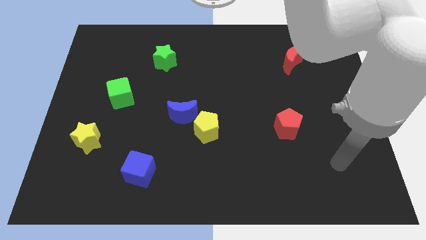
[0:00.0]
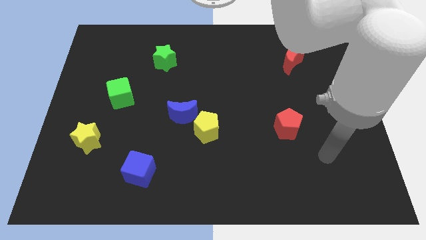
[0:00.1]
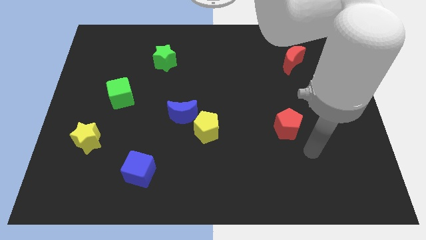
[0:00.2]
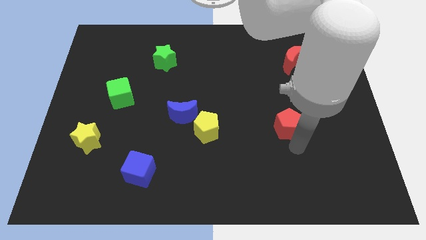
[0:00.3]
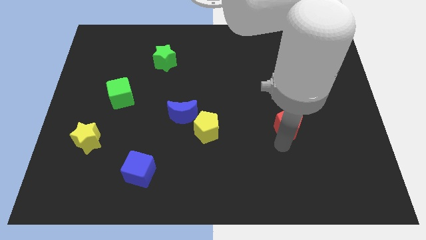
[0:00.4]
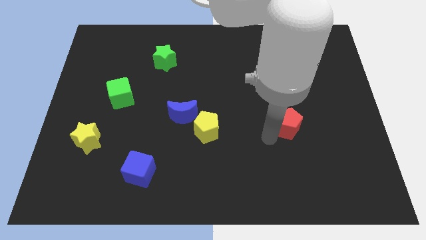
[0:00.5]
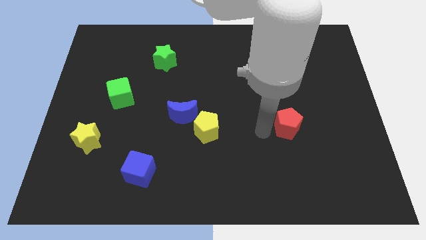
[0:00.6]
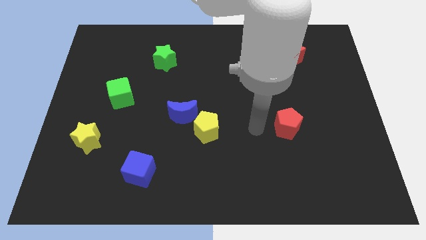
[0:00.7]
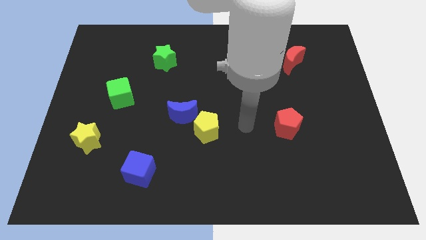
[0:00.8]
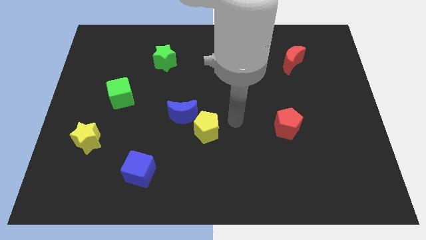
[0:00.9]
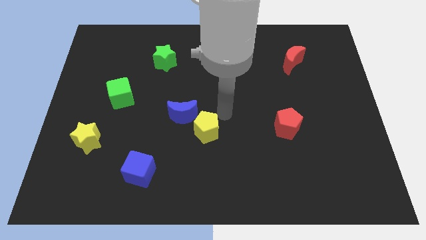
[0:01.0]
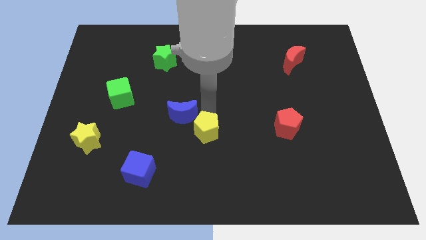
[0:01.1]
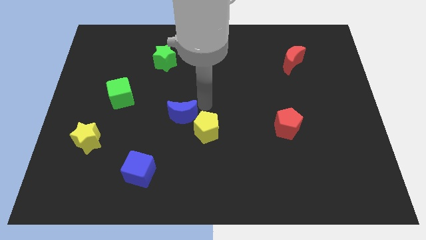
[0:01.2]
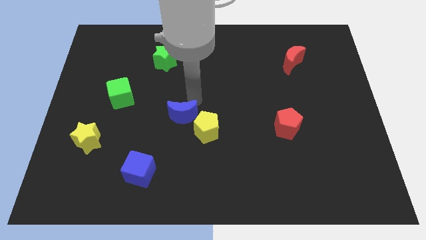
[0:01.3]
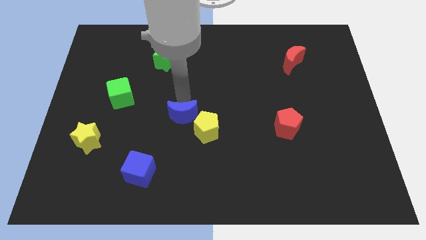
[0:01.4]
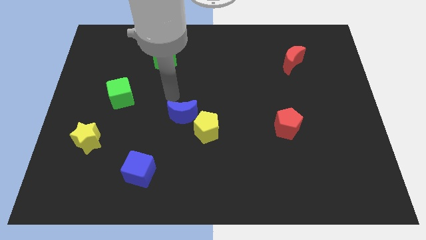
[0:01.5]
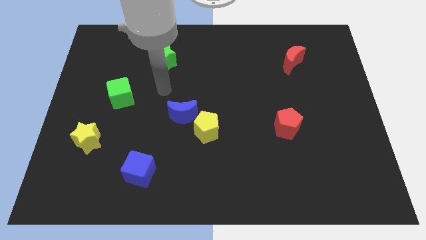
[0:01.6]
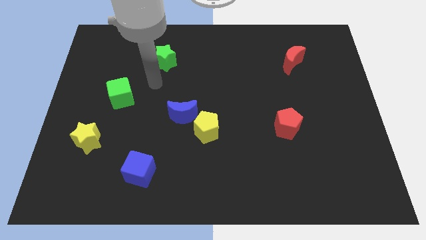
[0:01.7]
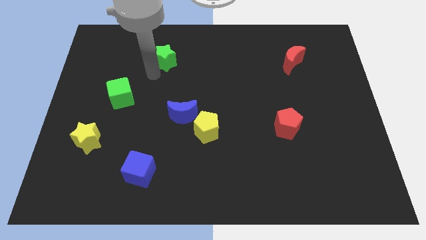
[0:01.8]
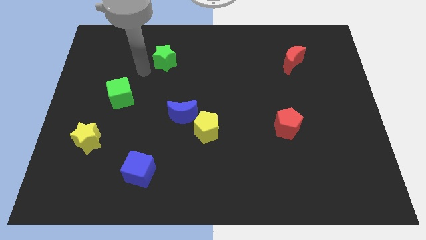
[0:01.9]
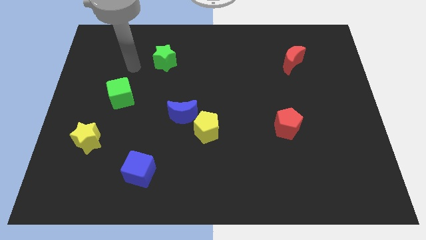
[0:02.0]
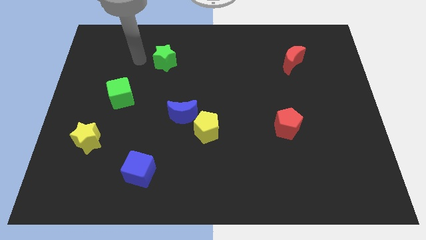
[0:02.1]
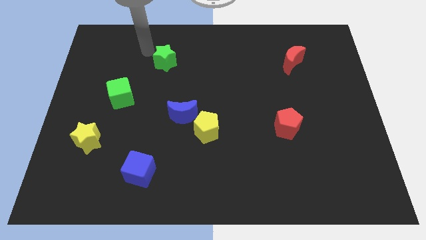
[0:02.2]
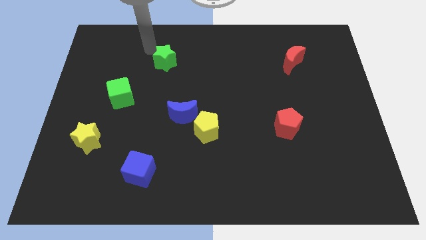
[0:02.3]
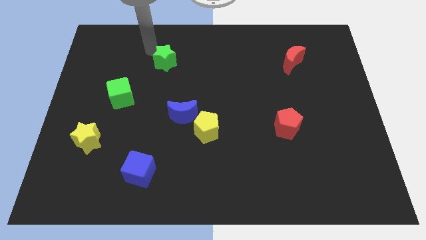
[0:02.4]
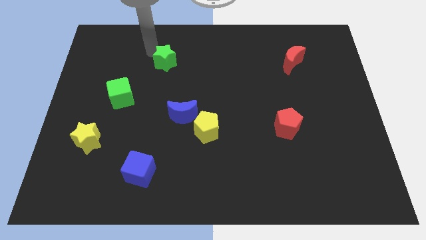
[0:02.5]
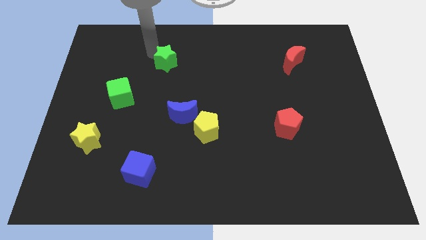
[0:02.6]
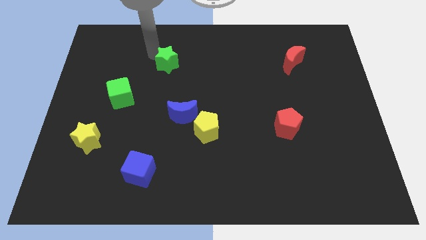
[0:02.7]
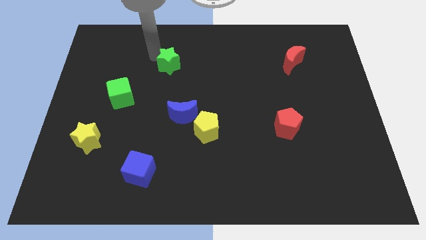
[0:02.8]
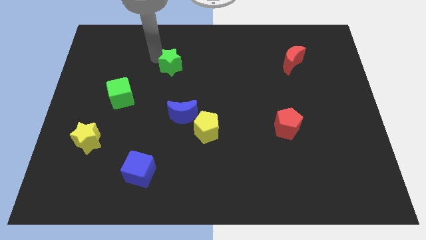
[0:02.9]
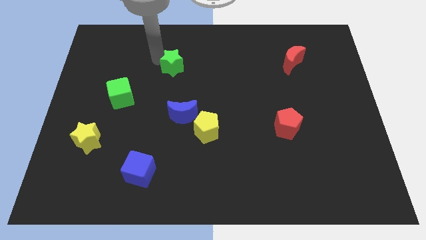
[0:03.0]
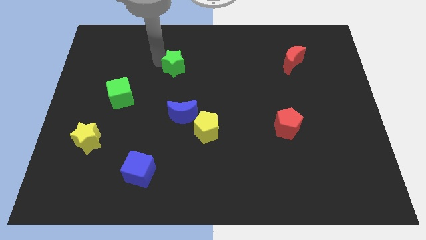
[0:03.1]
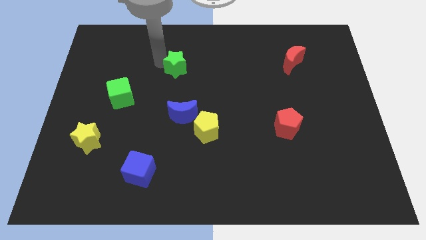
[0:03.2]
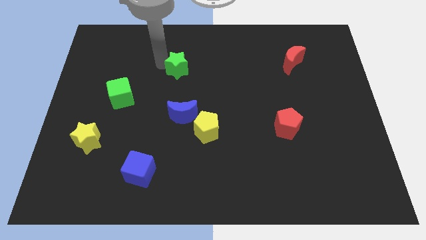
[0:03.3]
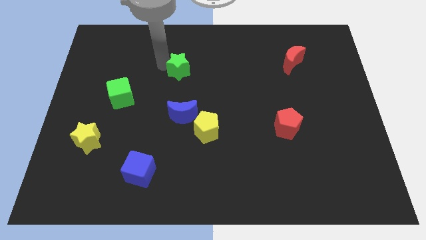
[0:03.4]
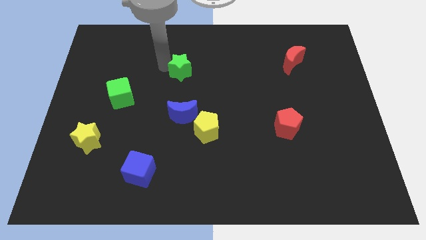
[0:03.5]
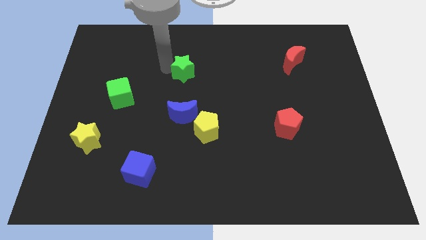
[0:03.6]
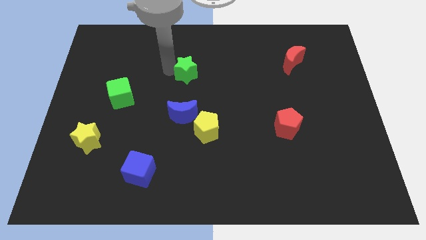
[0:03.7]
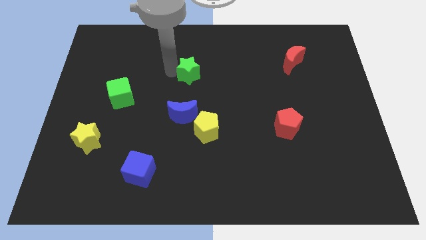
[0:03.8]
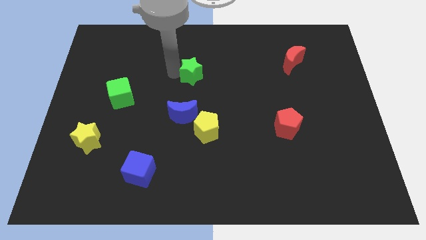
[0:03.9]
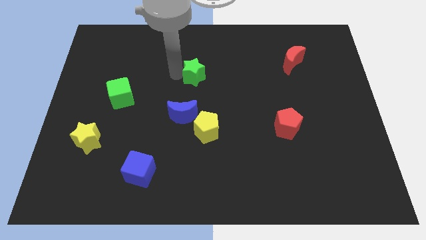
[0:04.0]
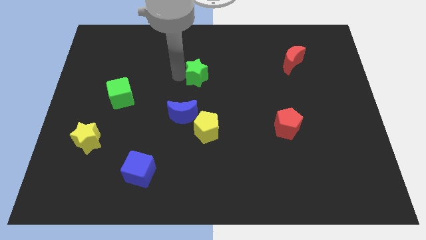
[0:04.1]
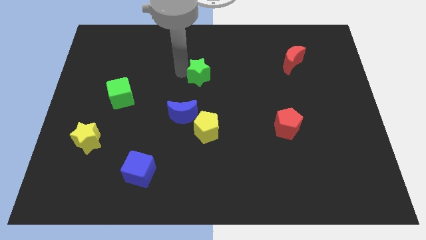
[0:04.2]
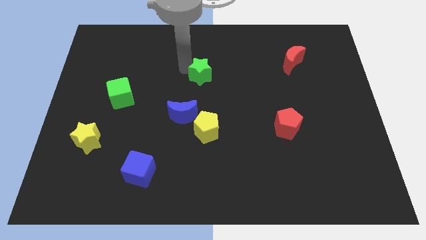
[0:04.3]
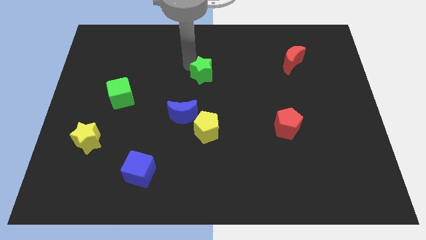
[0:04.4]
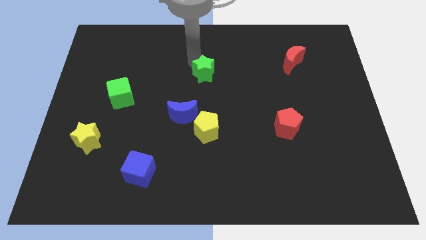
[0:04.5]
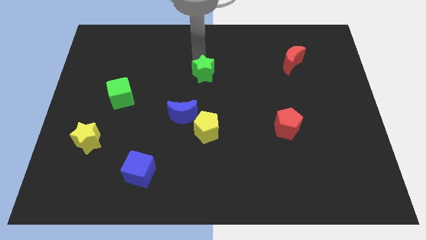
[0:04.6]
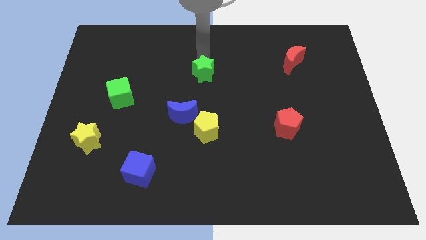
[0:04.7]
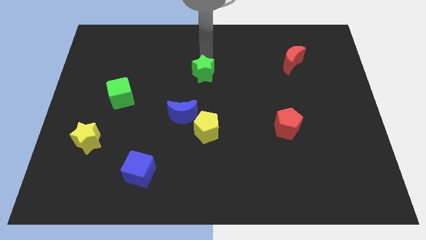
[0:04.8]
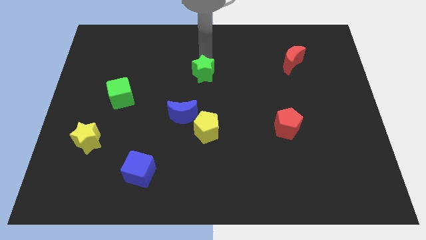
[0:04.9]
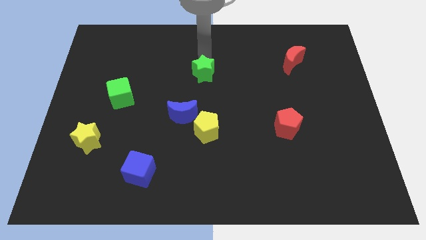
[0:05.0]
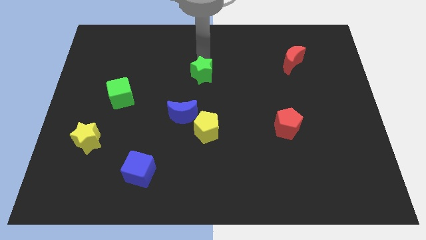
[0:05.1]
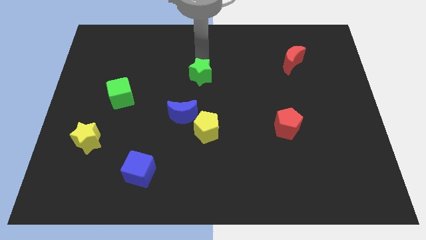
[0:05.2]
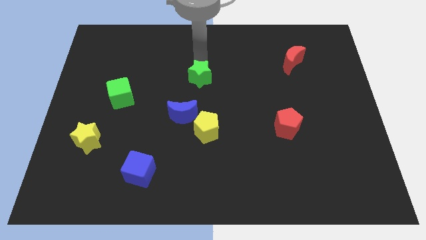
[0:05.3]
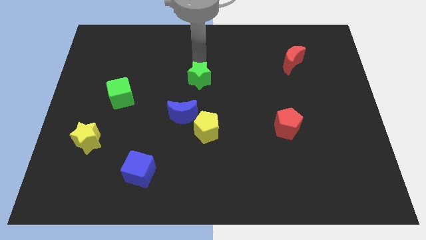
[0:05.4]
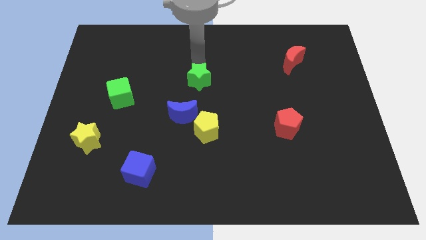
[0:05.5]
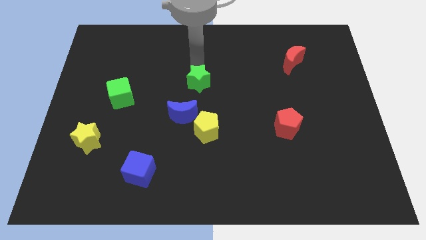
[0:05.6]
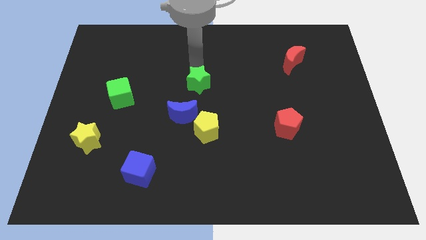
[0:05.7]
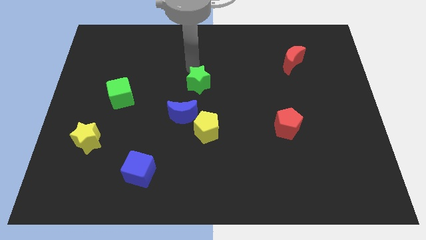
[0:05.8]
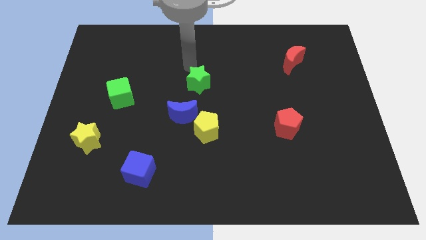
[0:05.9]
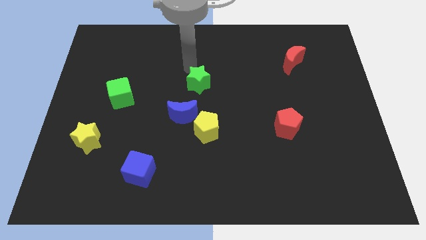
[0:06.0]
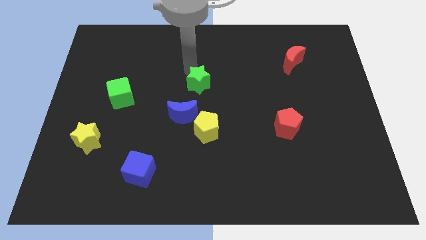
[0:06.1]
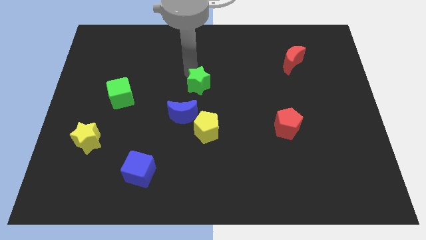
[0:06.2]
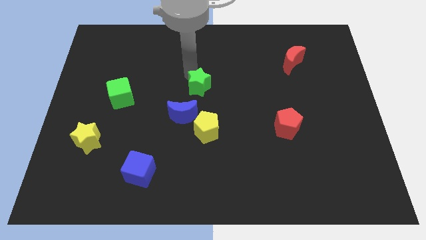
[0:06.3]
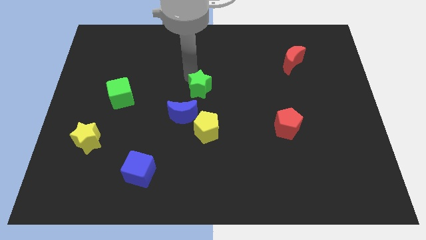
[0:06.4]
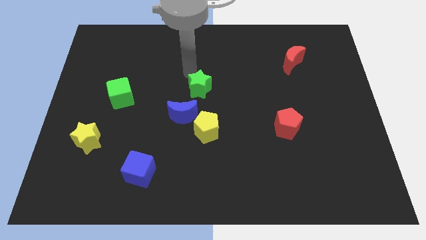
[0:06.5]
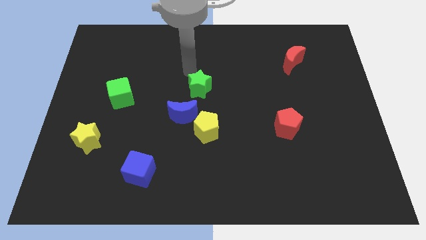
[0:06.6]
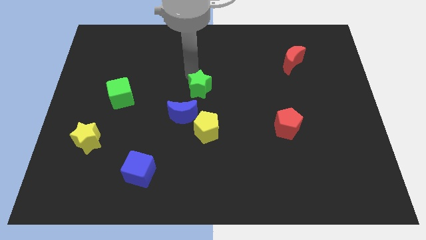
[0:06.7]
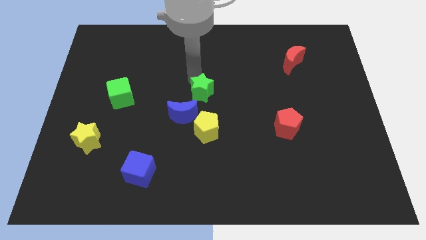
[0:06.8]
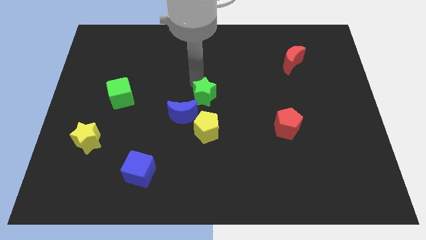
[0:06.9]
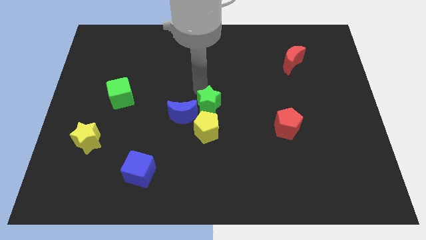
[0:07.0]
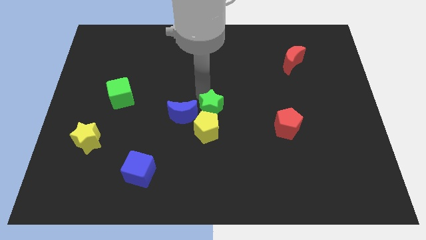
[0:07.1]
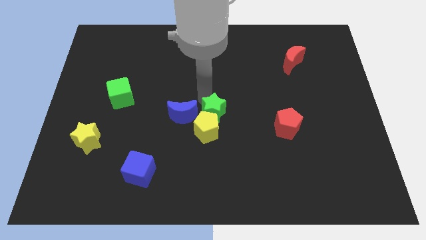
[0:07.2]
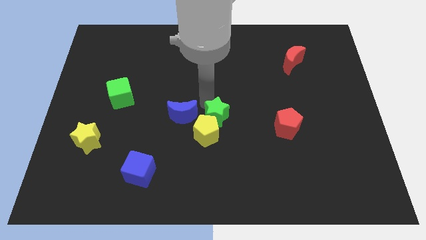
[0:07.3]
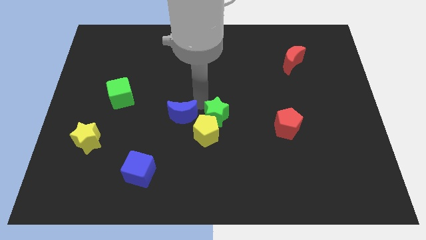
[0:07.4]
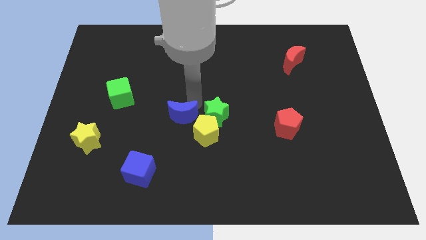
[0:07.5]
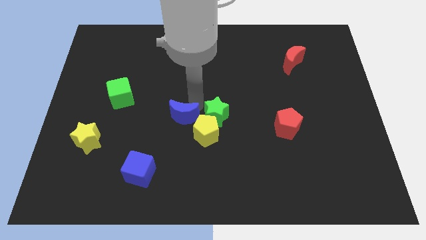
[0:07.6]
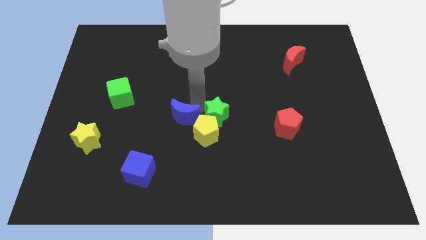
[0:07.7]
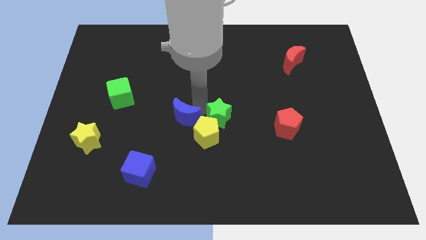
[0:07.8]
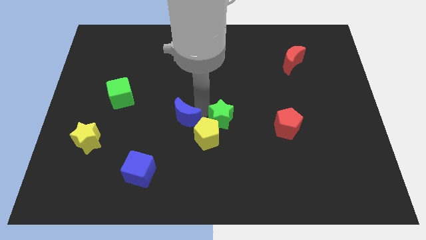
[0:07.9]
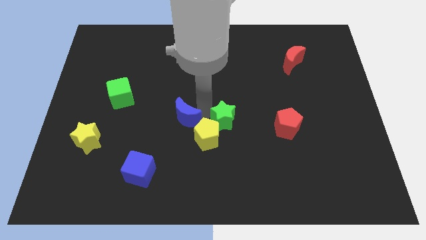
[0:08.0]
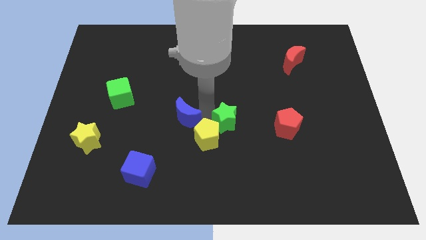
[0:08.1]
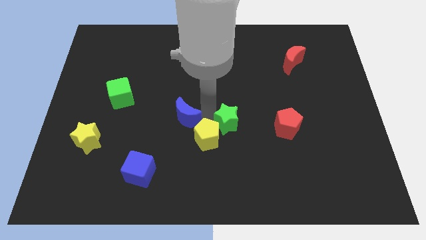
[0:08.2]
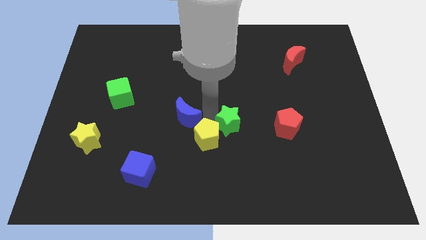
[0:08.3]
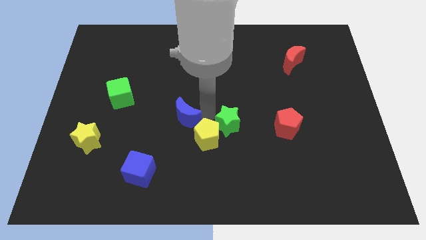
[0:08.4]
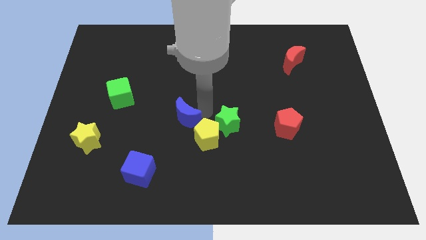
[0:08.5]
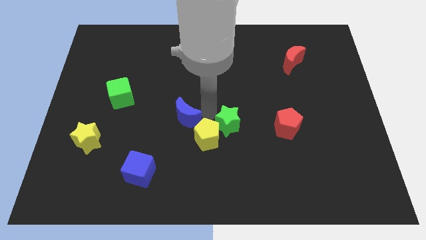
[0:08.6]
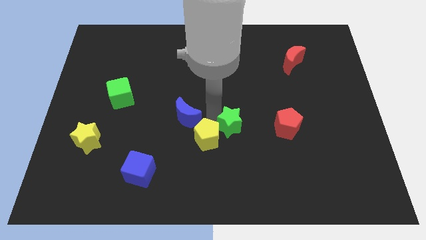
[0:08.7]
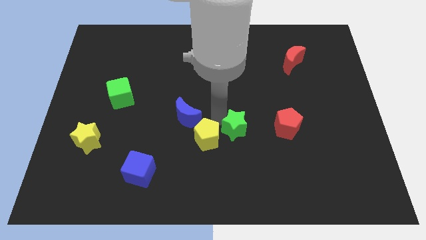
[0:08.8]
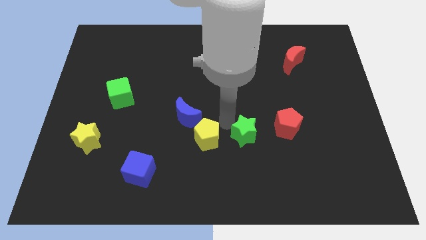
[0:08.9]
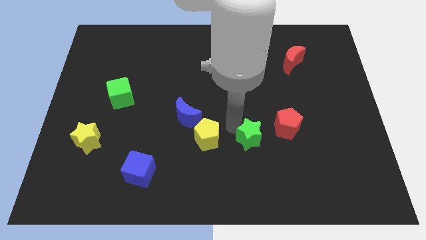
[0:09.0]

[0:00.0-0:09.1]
put the green star to the bottom left side of the red pentagon
